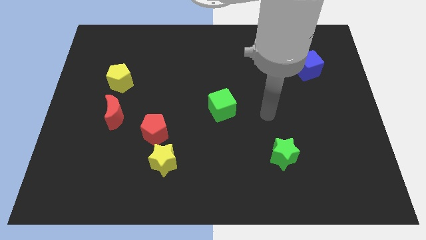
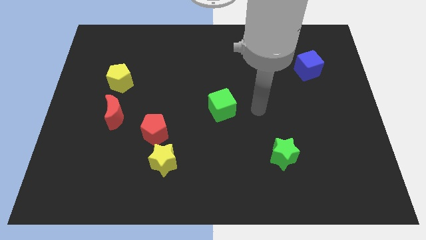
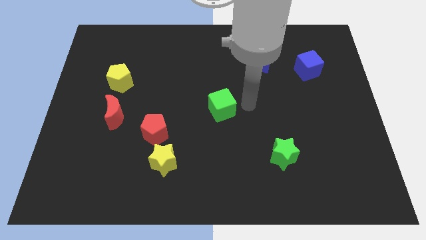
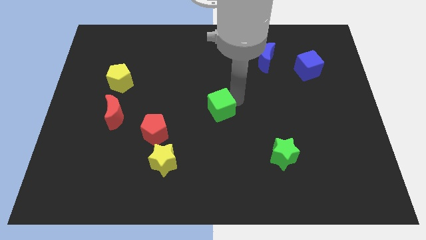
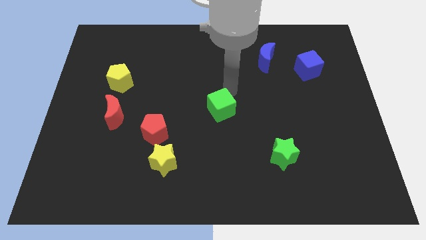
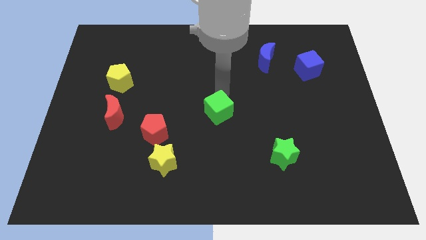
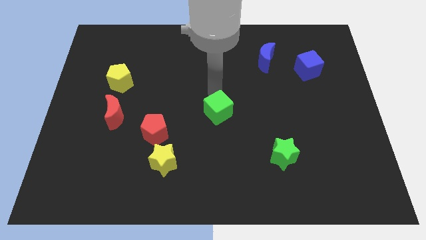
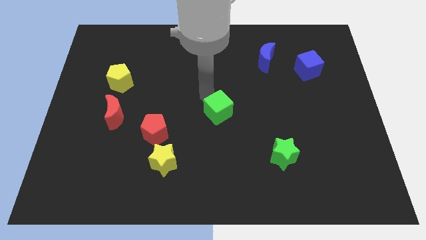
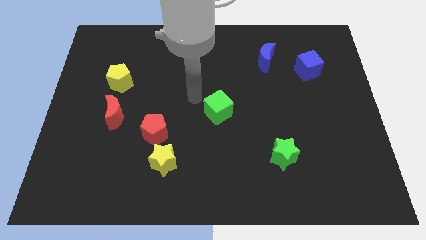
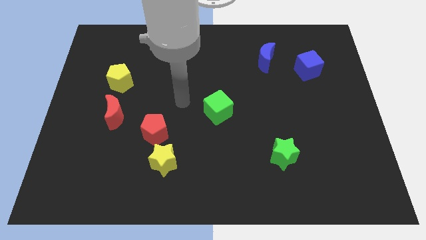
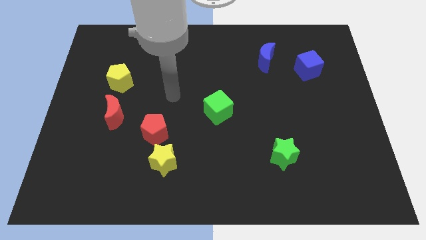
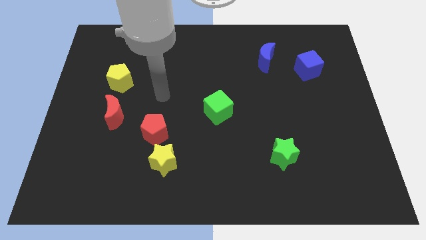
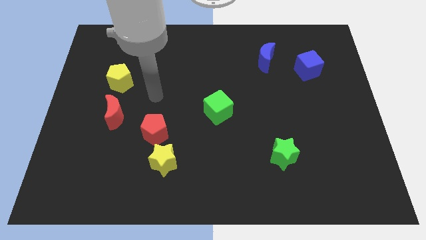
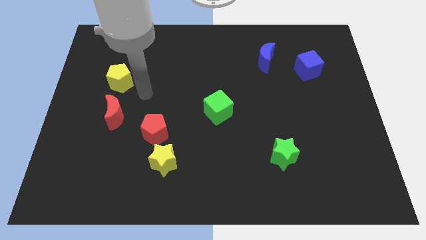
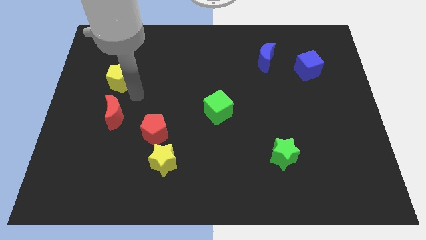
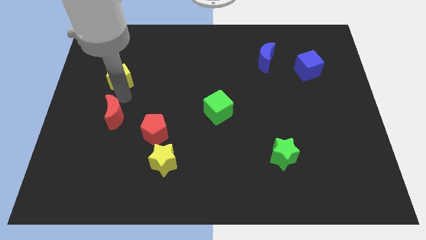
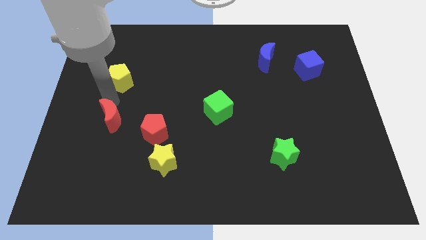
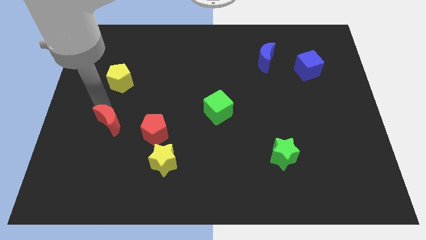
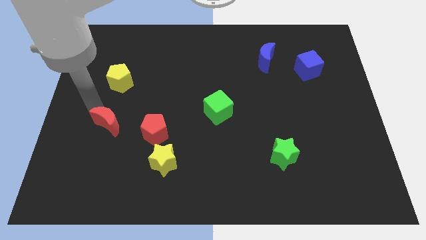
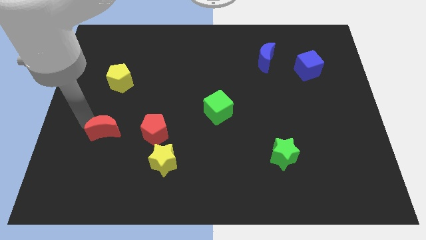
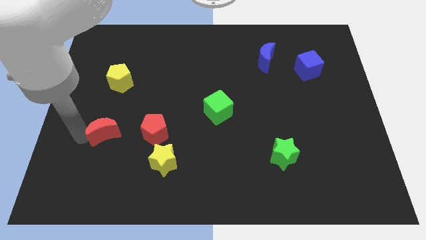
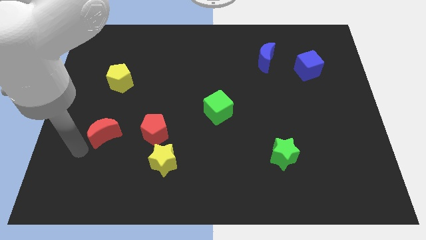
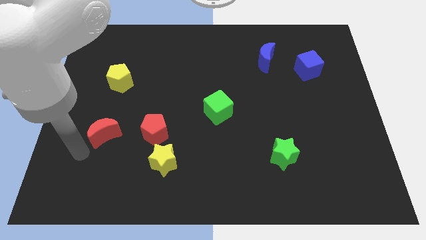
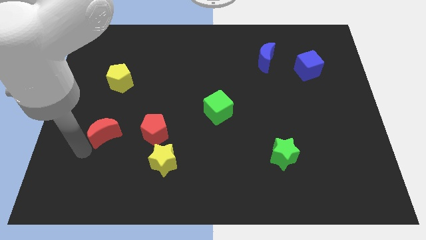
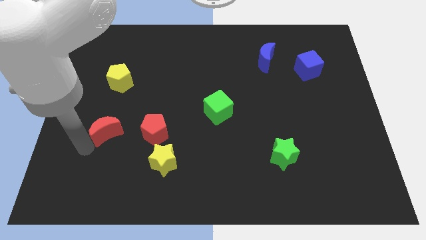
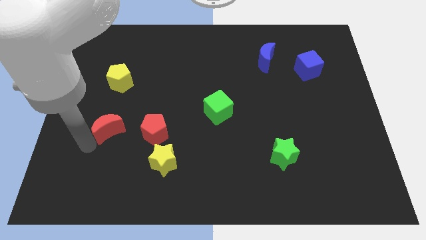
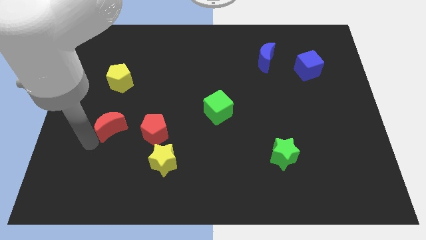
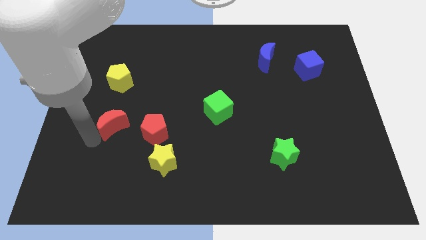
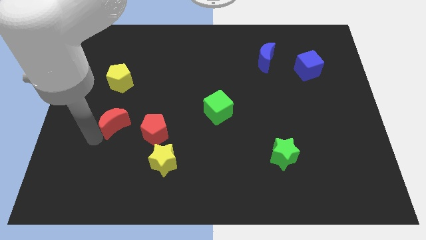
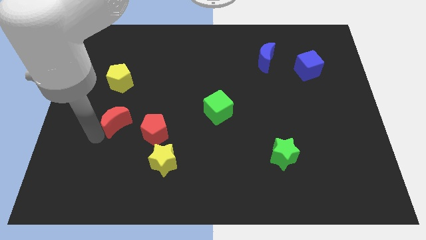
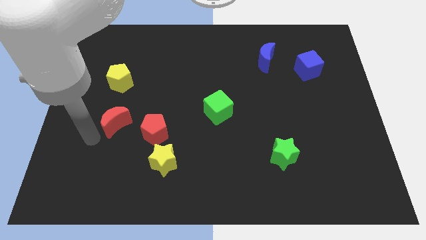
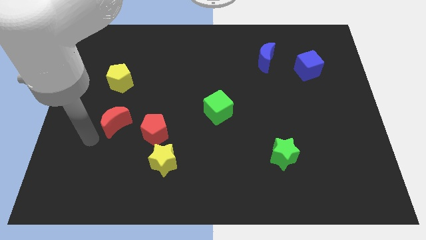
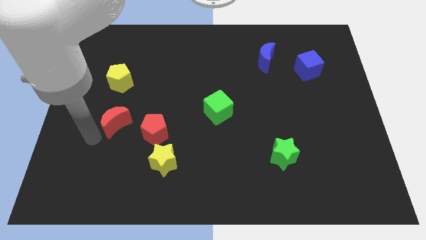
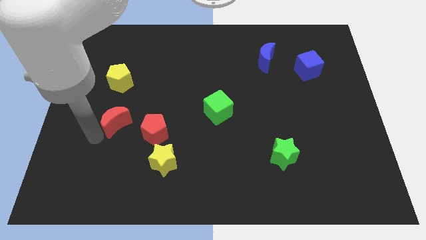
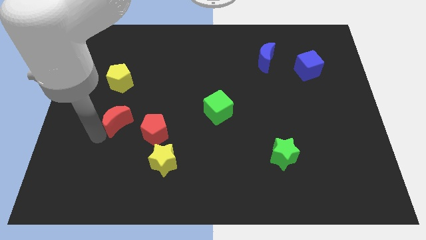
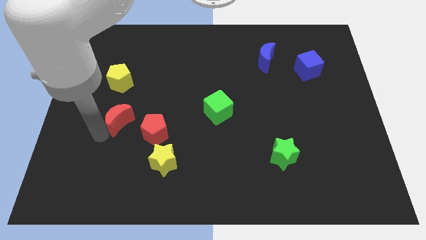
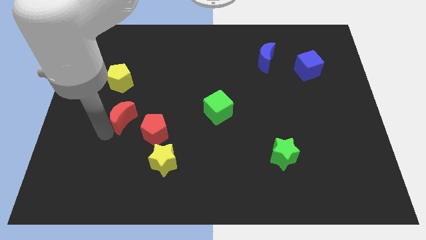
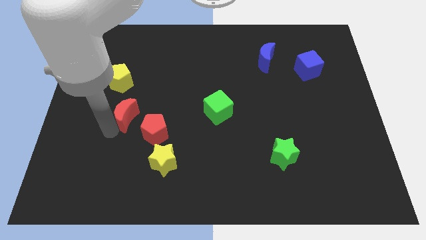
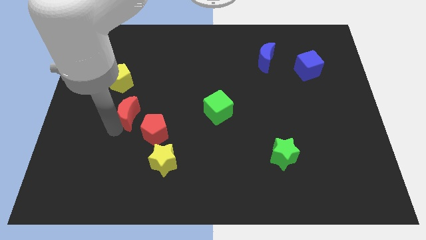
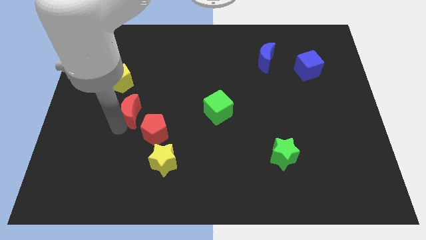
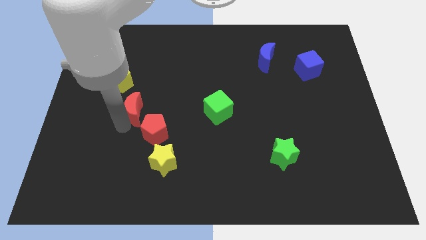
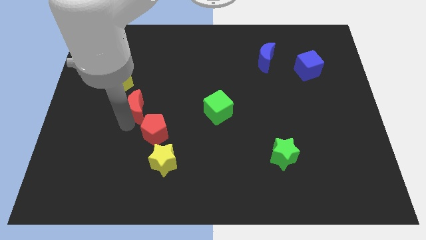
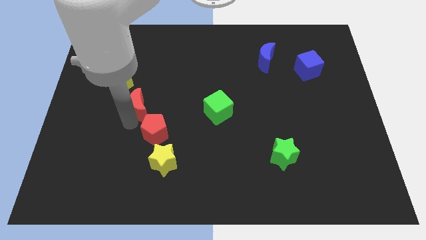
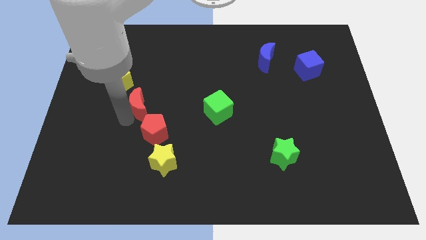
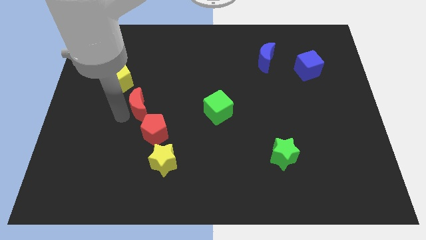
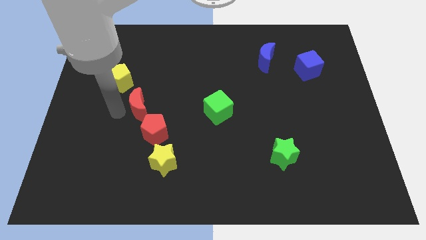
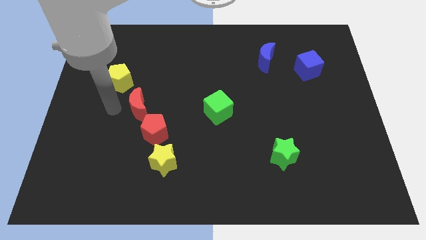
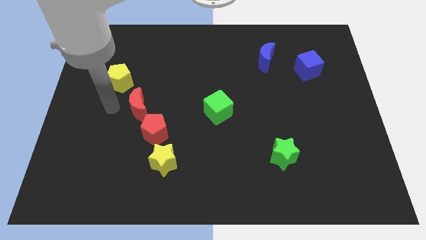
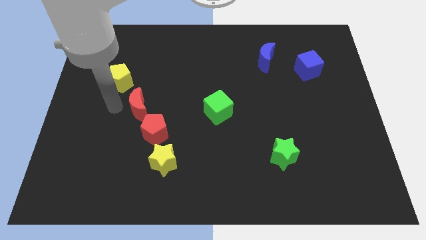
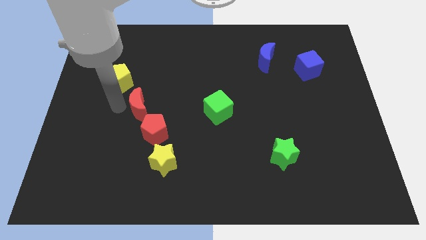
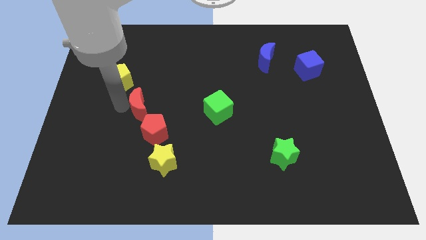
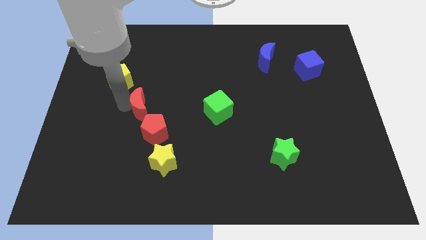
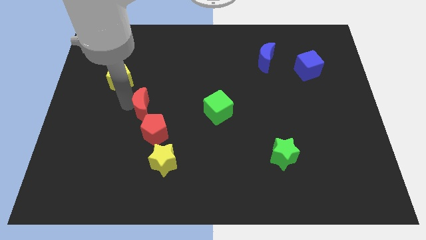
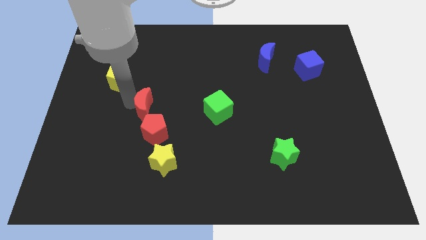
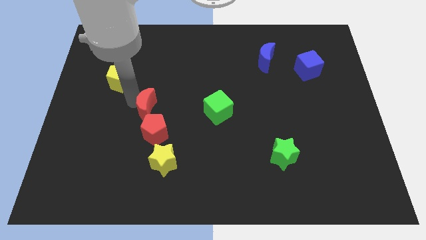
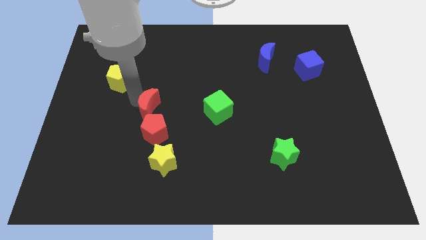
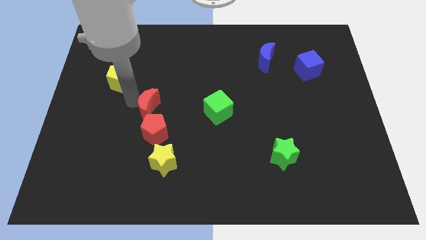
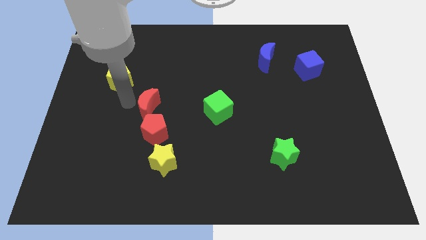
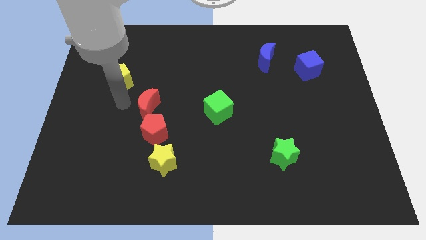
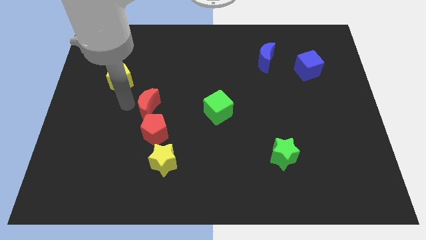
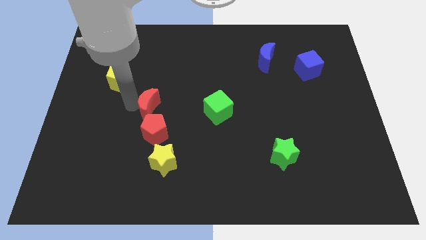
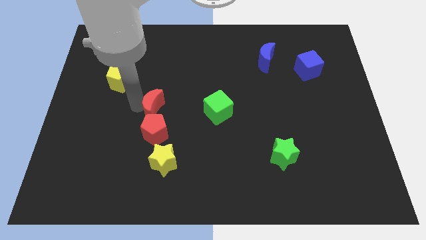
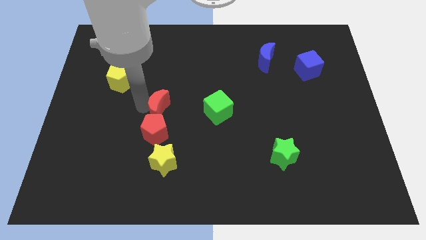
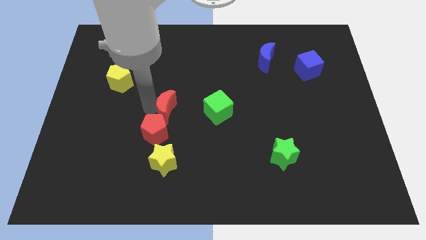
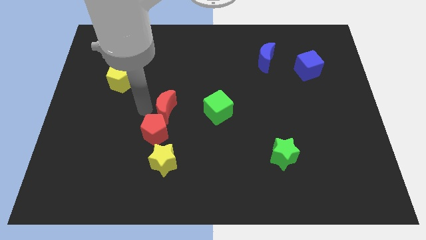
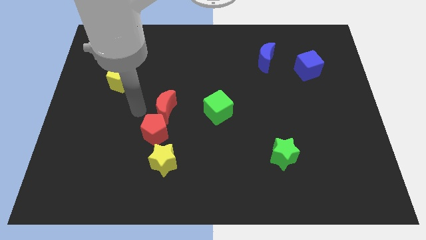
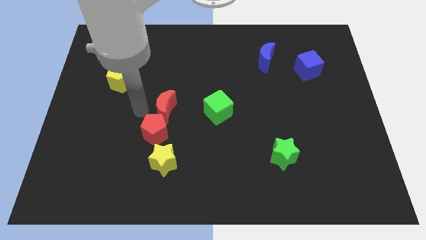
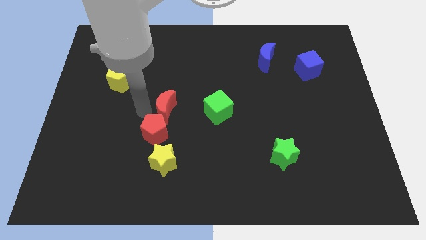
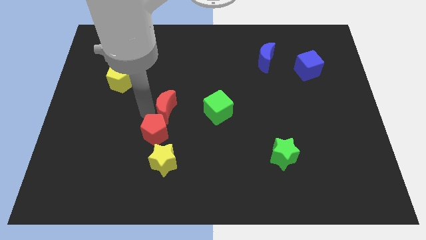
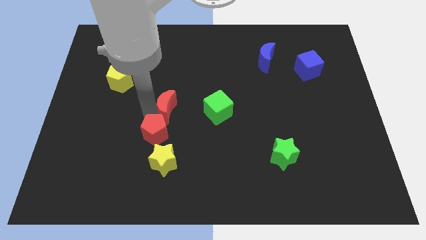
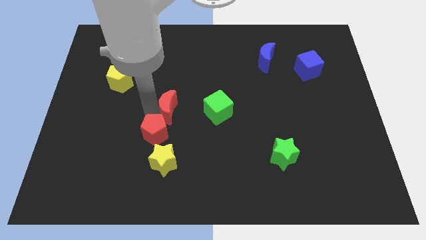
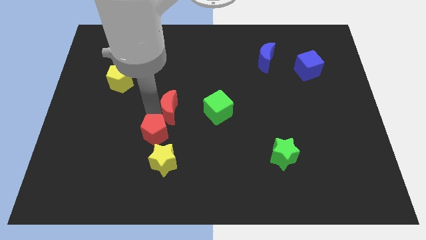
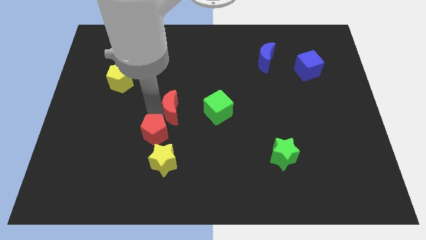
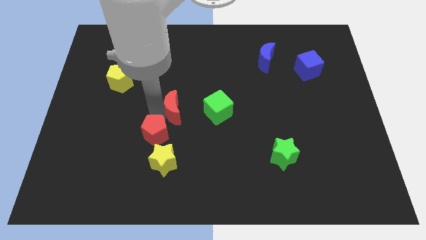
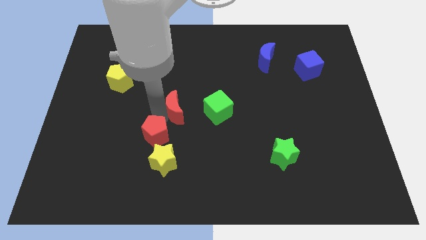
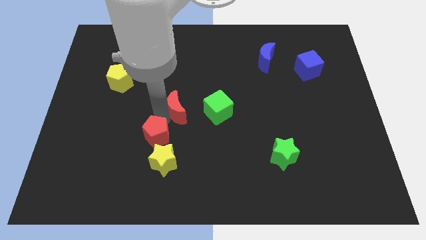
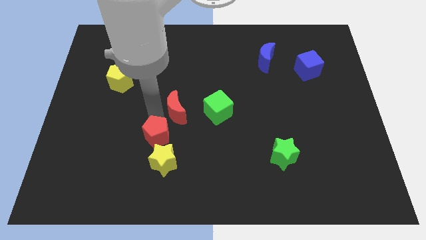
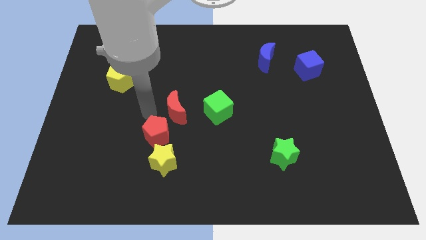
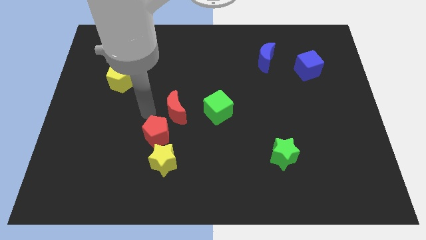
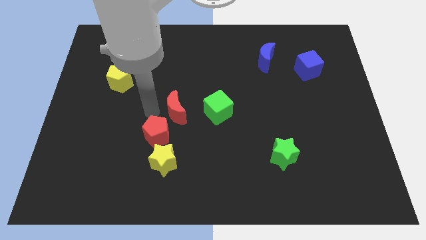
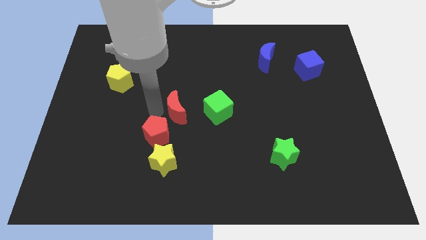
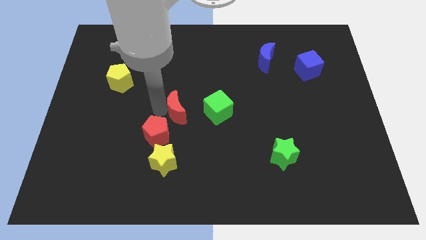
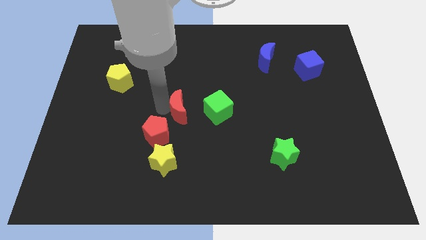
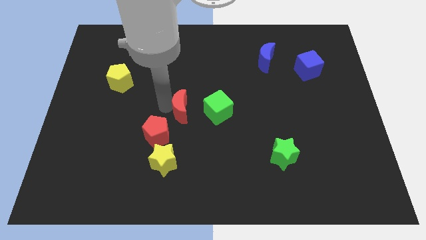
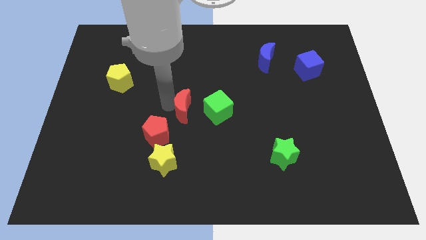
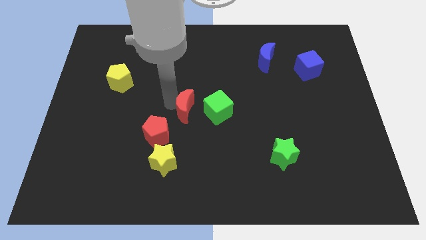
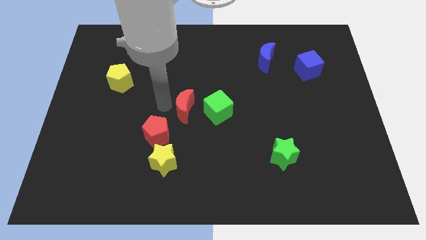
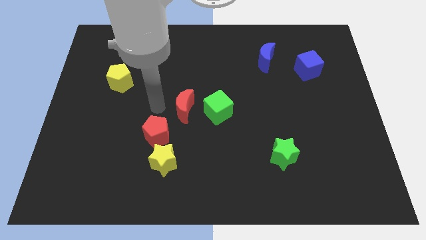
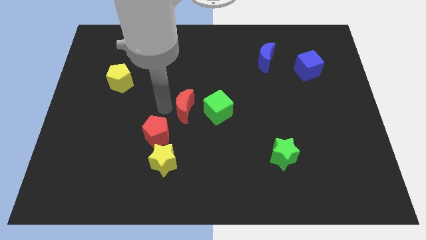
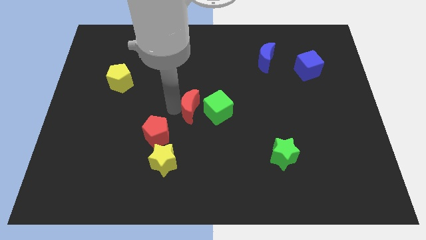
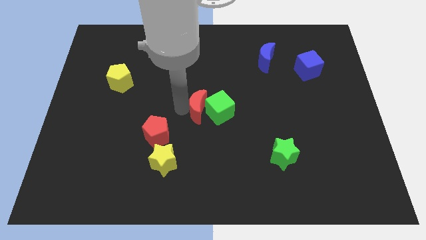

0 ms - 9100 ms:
put the red moon towards the green cube
